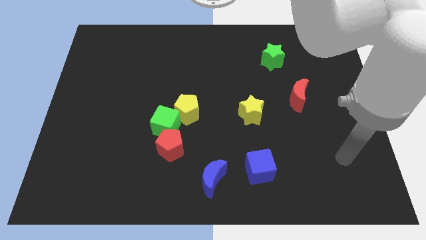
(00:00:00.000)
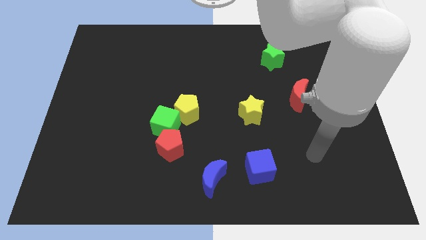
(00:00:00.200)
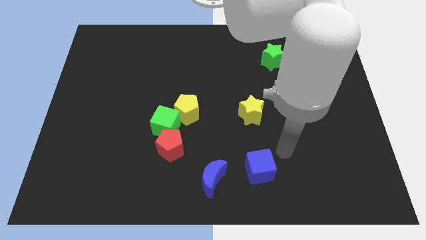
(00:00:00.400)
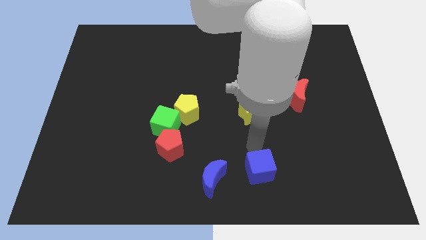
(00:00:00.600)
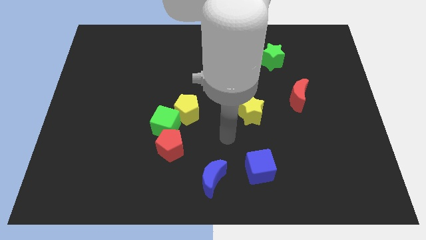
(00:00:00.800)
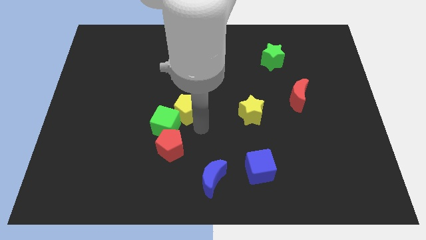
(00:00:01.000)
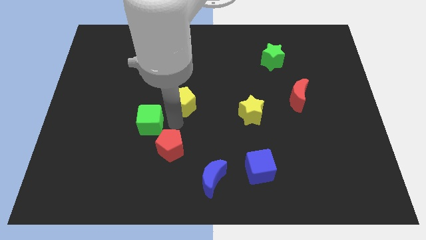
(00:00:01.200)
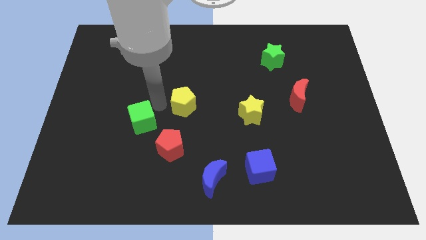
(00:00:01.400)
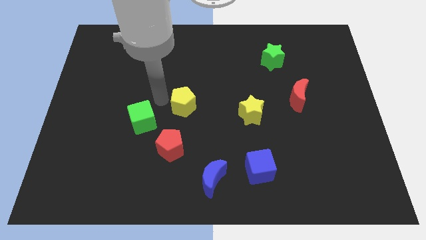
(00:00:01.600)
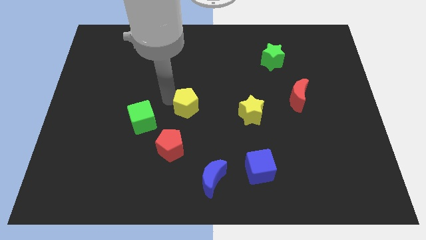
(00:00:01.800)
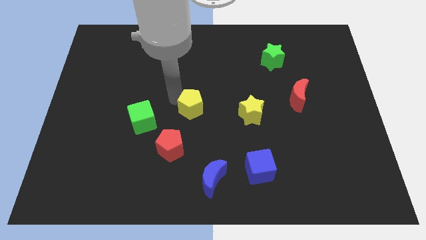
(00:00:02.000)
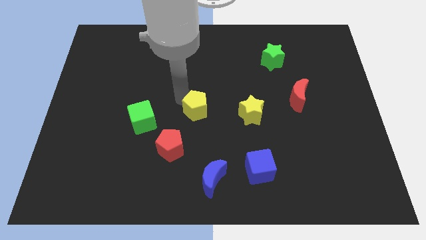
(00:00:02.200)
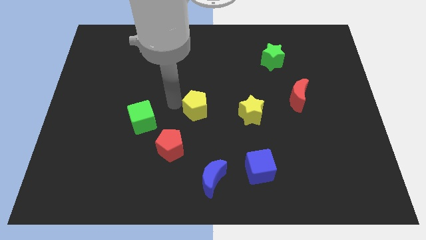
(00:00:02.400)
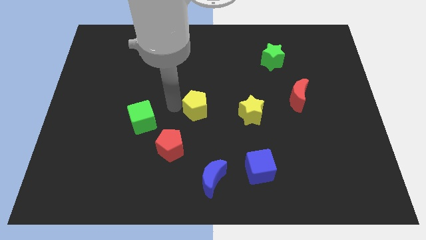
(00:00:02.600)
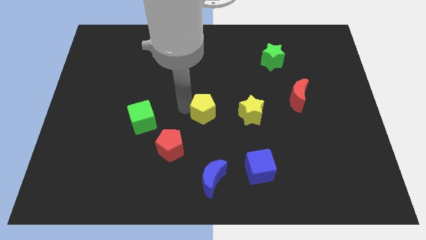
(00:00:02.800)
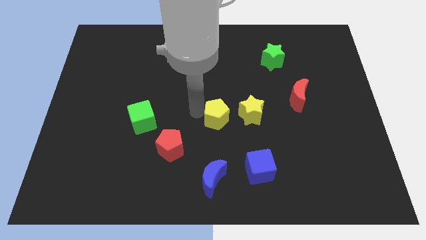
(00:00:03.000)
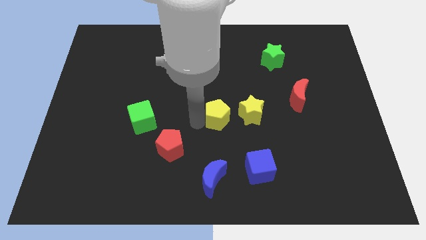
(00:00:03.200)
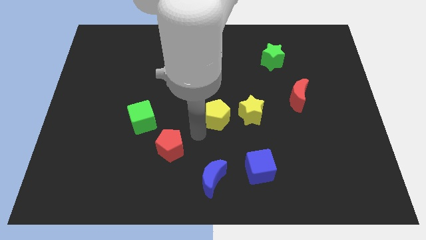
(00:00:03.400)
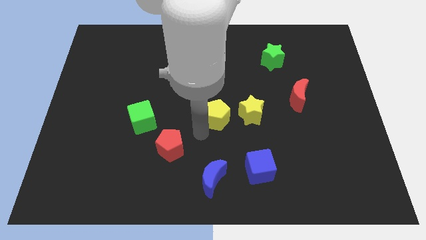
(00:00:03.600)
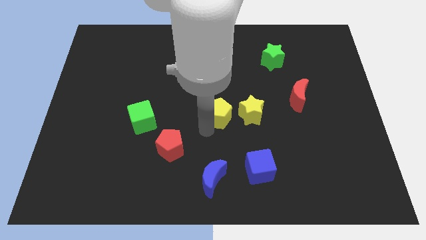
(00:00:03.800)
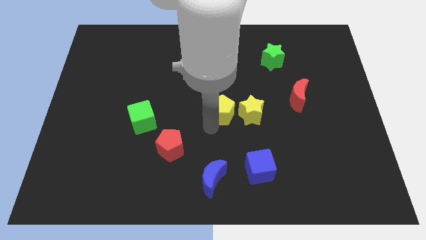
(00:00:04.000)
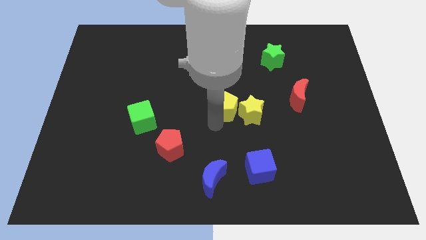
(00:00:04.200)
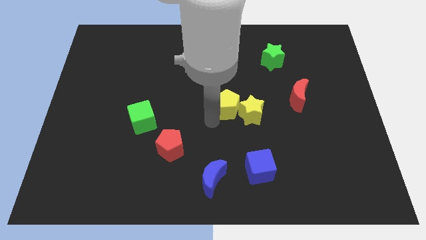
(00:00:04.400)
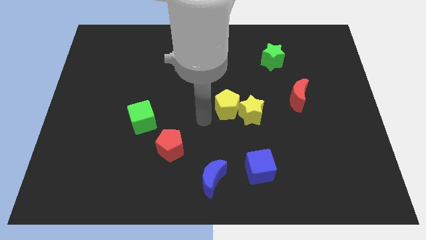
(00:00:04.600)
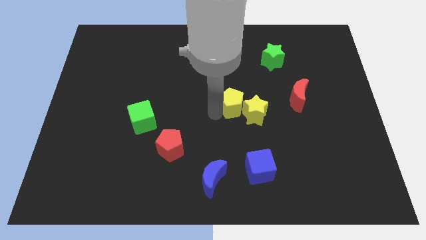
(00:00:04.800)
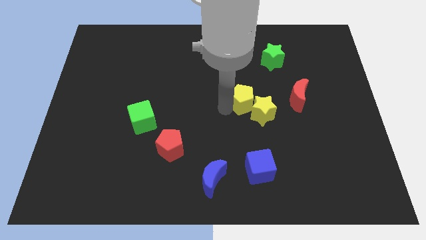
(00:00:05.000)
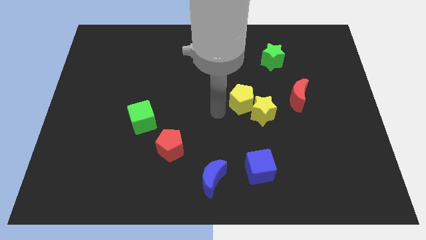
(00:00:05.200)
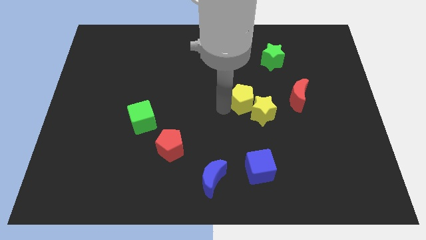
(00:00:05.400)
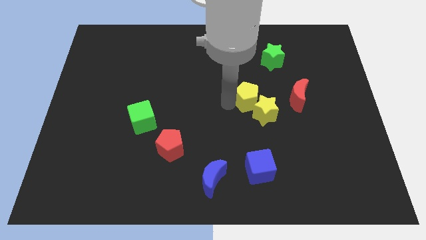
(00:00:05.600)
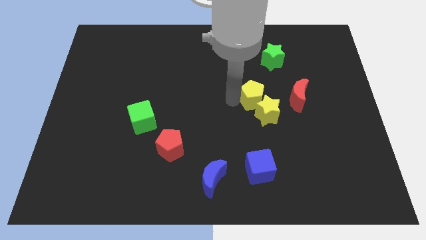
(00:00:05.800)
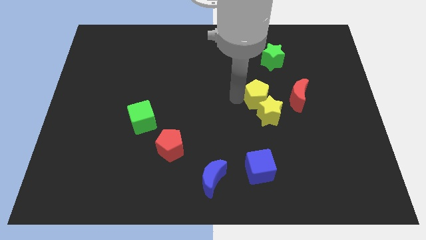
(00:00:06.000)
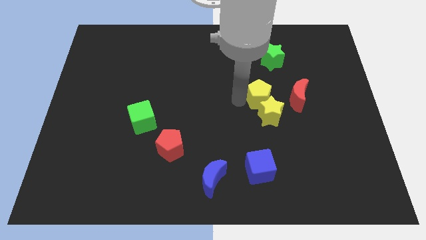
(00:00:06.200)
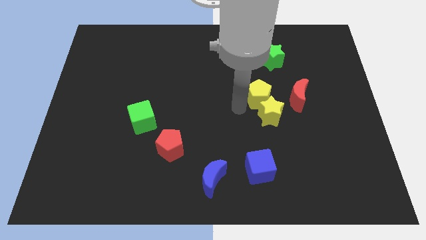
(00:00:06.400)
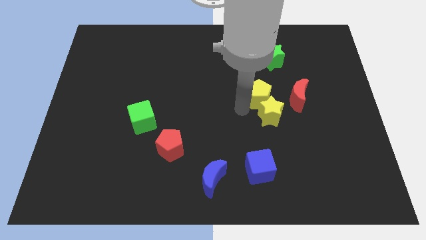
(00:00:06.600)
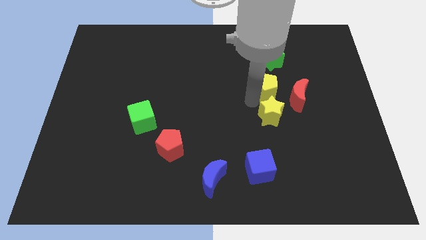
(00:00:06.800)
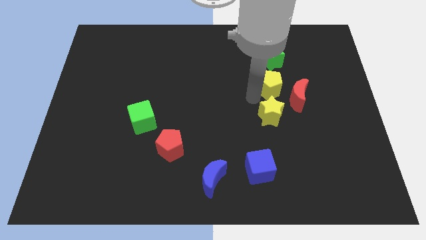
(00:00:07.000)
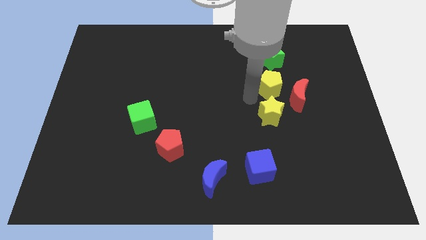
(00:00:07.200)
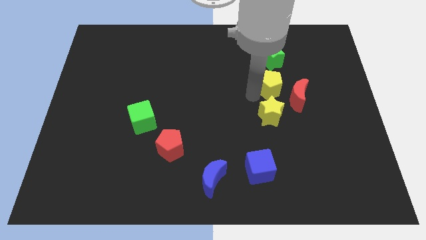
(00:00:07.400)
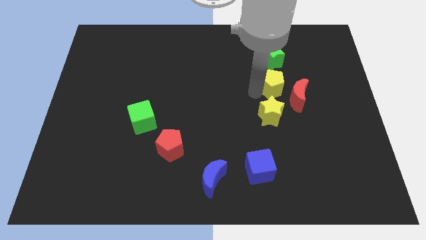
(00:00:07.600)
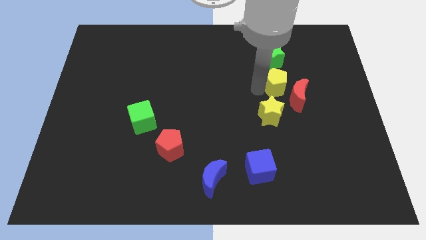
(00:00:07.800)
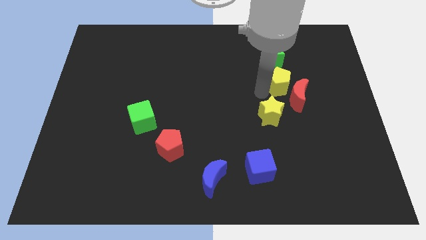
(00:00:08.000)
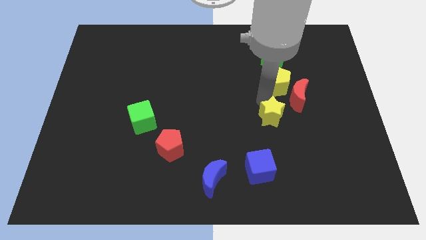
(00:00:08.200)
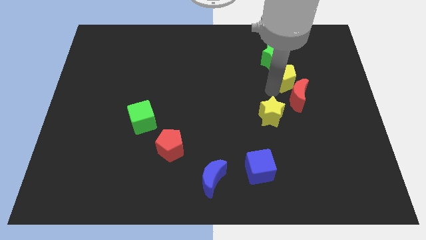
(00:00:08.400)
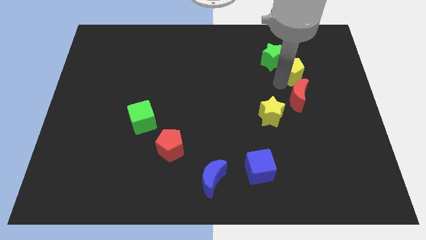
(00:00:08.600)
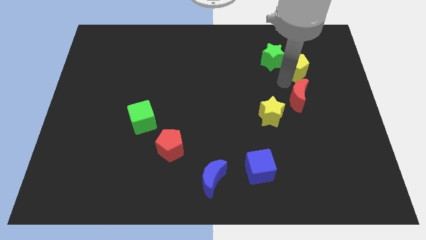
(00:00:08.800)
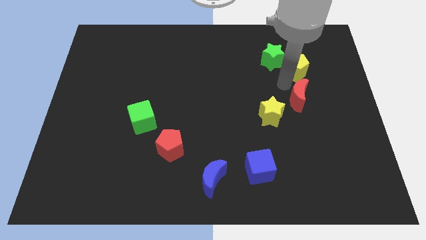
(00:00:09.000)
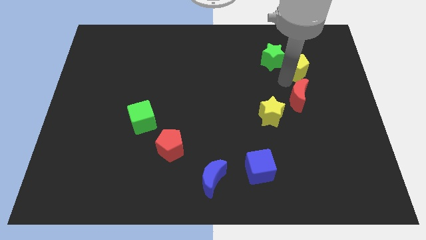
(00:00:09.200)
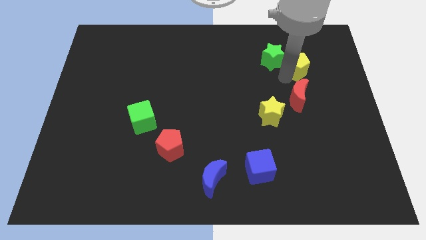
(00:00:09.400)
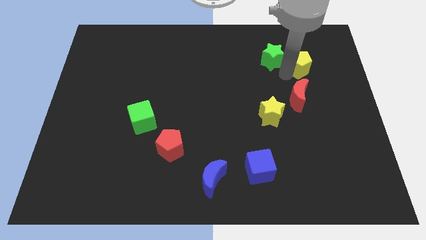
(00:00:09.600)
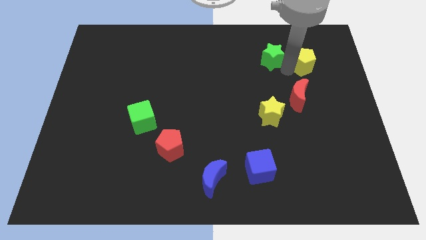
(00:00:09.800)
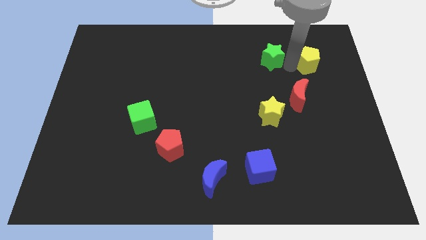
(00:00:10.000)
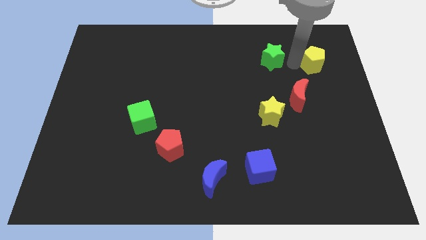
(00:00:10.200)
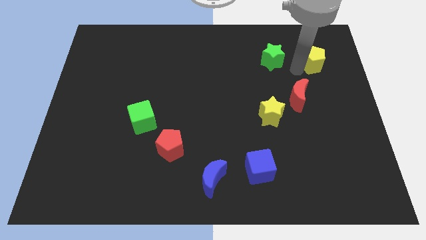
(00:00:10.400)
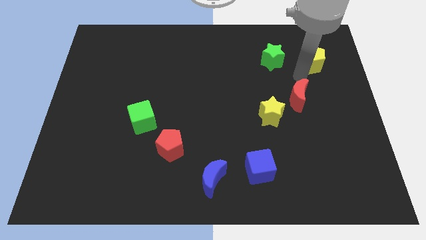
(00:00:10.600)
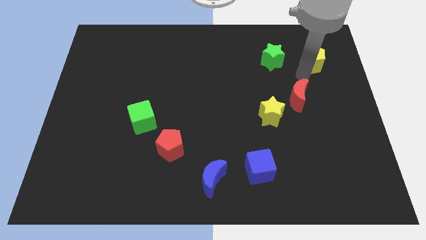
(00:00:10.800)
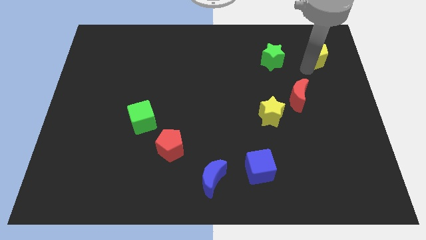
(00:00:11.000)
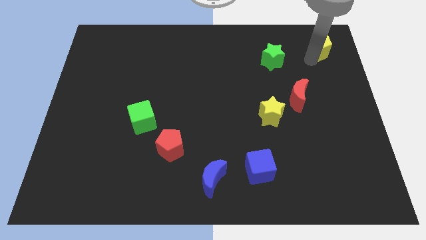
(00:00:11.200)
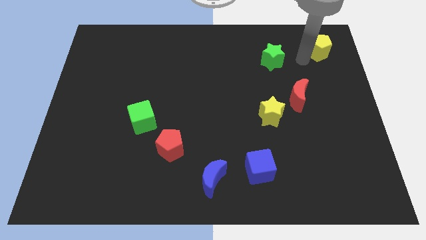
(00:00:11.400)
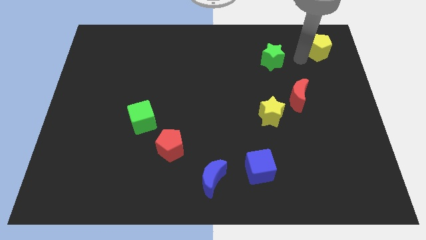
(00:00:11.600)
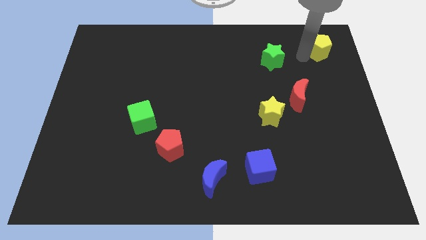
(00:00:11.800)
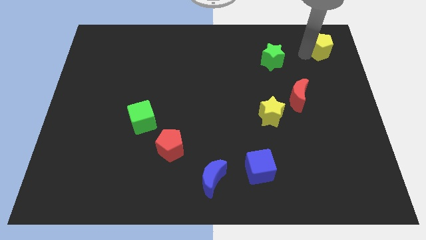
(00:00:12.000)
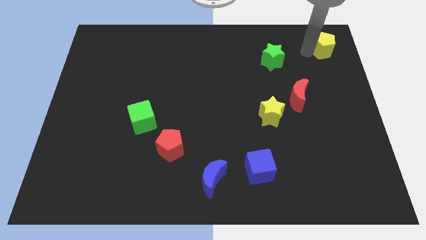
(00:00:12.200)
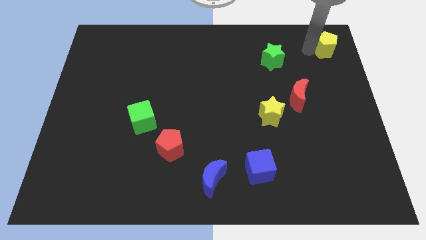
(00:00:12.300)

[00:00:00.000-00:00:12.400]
put the yellow pentagon to the top right
